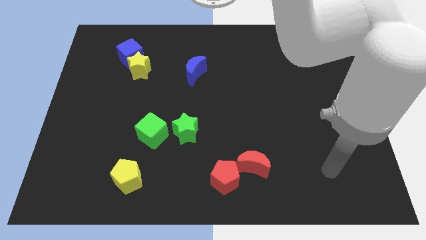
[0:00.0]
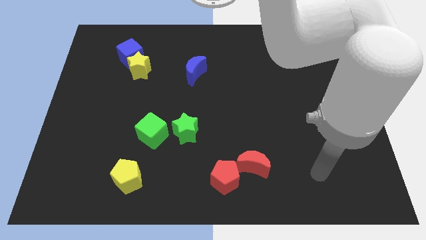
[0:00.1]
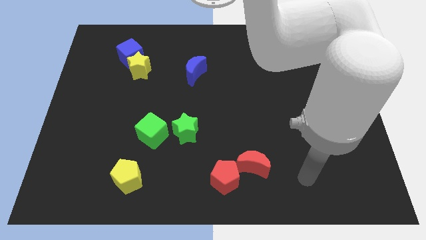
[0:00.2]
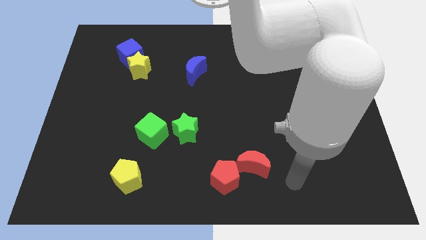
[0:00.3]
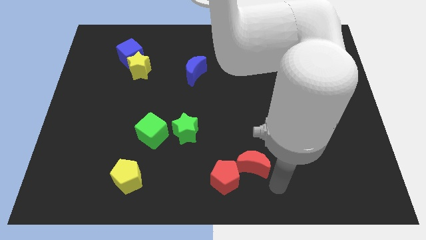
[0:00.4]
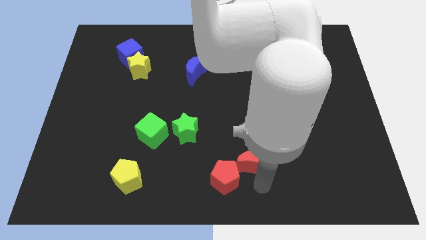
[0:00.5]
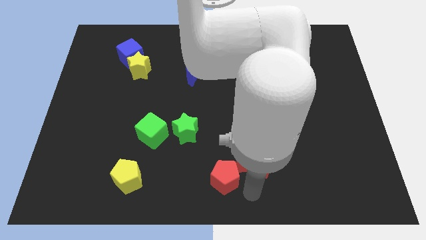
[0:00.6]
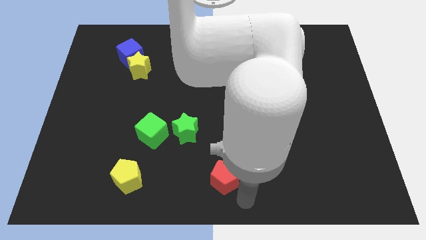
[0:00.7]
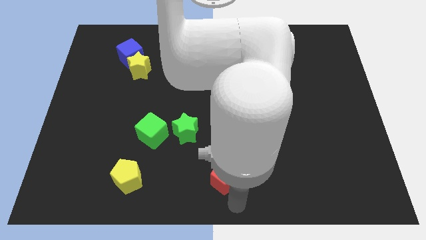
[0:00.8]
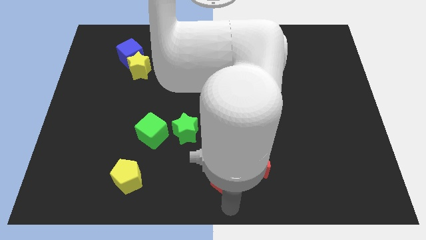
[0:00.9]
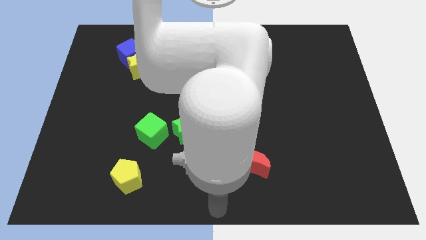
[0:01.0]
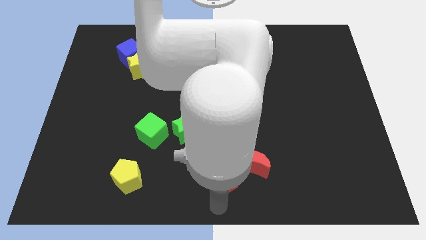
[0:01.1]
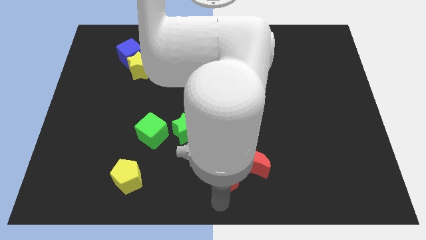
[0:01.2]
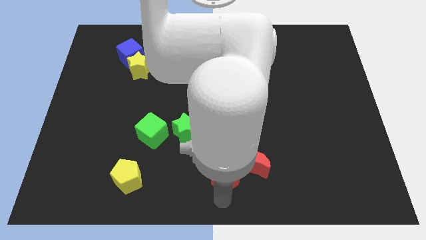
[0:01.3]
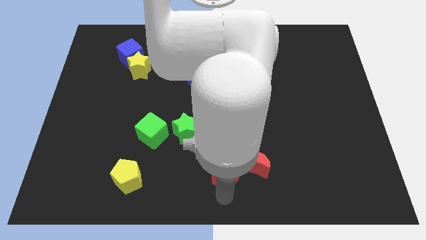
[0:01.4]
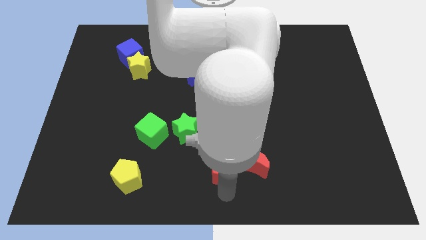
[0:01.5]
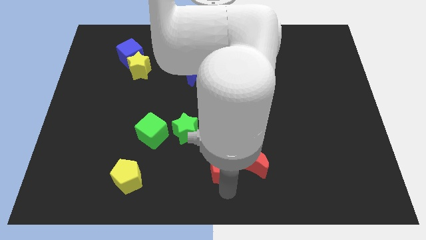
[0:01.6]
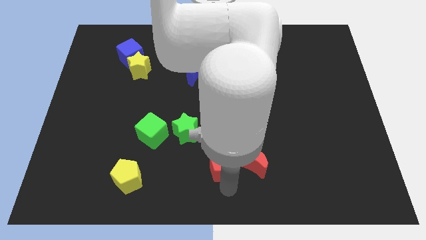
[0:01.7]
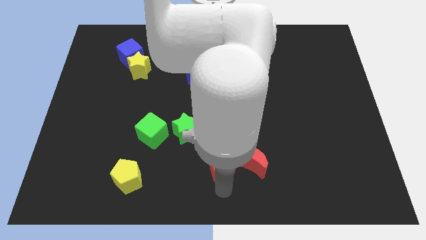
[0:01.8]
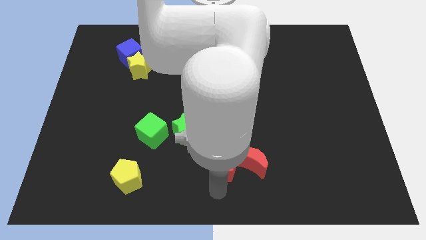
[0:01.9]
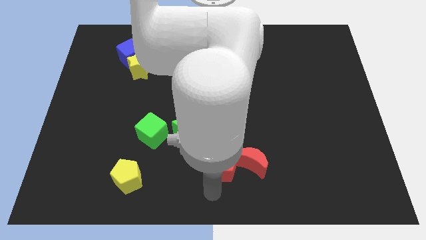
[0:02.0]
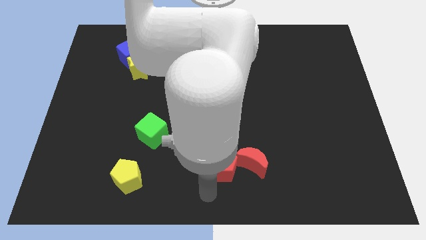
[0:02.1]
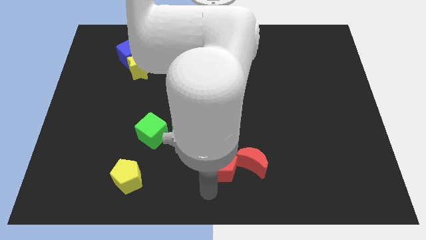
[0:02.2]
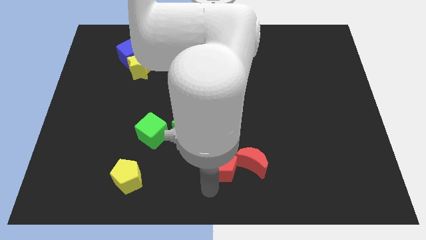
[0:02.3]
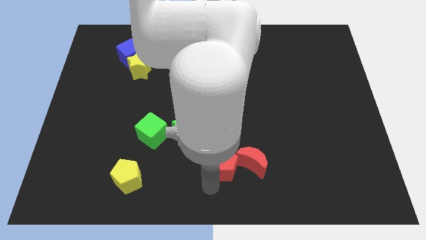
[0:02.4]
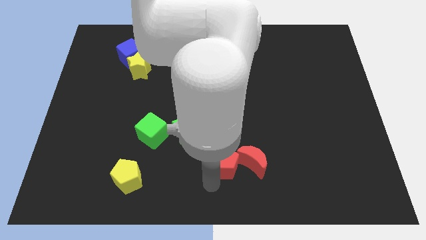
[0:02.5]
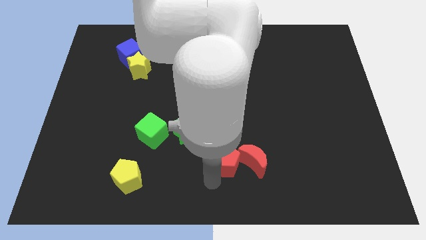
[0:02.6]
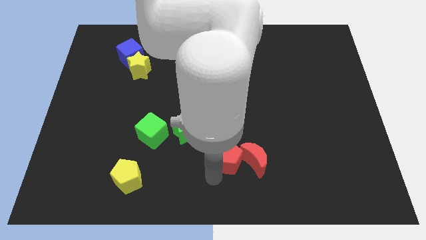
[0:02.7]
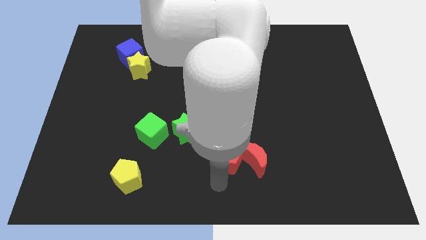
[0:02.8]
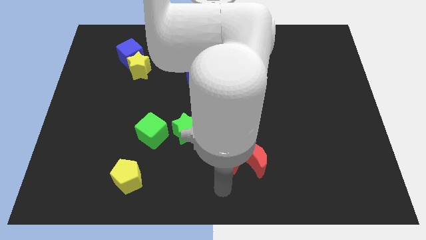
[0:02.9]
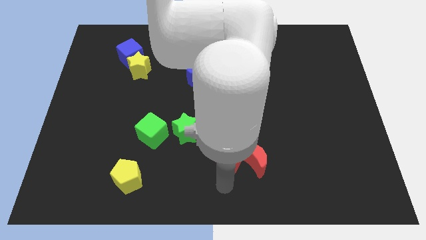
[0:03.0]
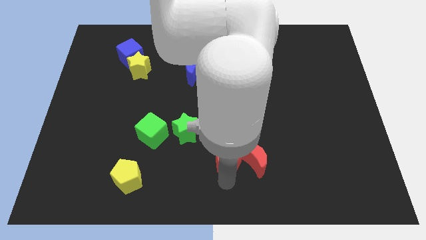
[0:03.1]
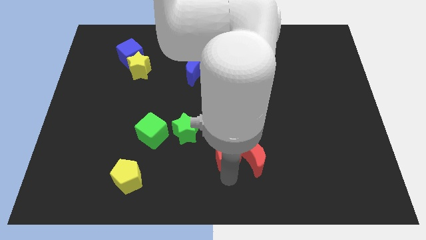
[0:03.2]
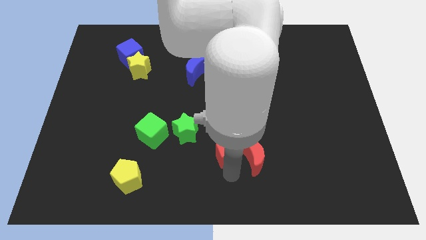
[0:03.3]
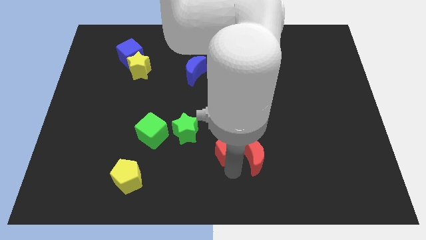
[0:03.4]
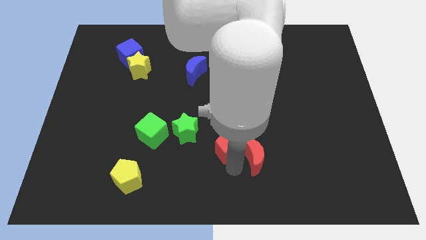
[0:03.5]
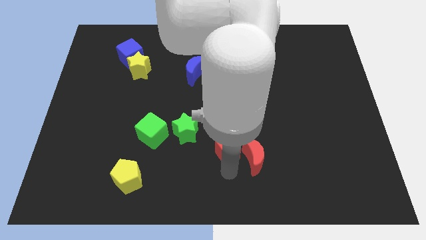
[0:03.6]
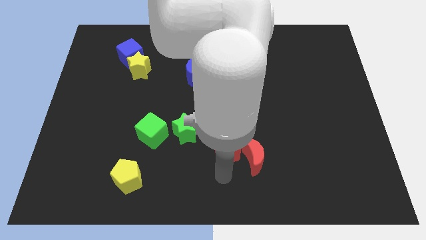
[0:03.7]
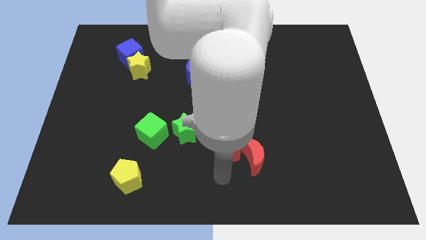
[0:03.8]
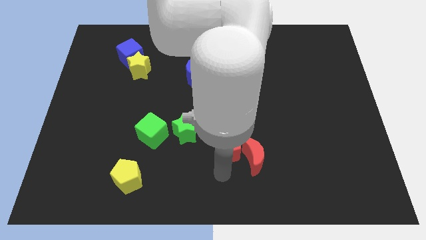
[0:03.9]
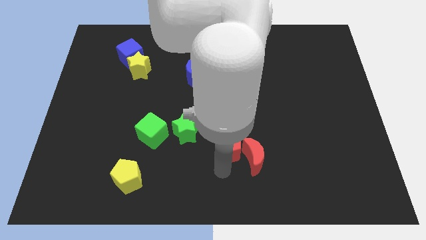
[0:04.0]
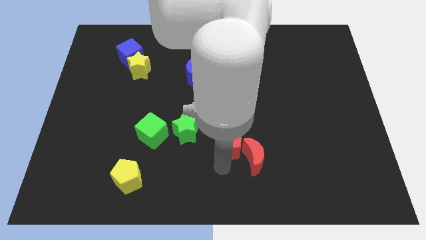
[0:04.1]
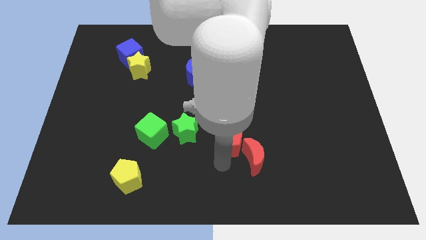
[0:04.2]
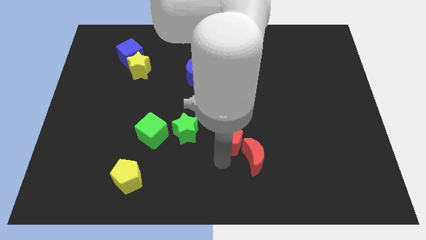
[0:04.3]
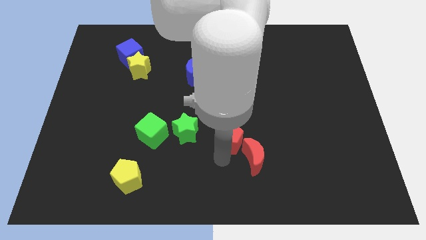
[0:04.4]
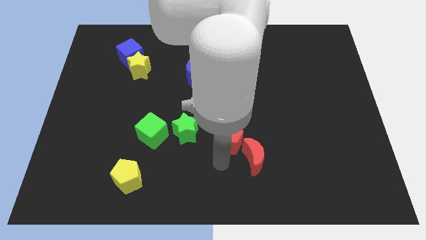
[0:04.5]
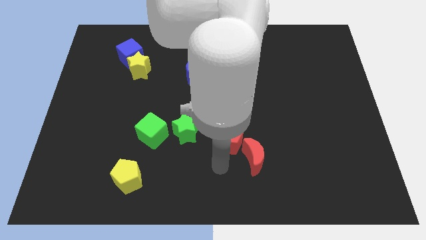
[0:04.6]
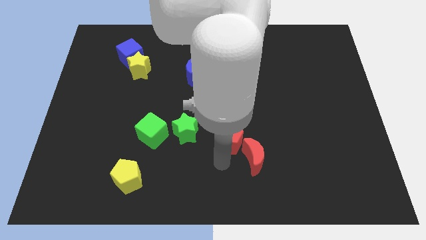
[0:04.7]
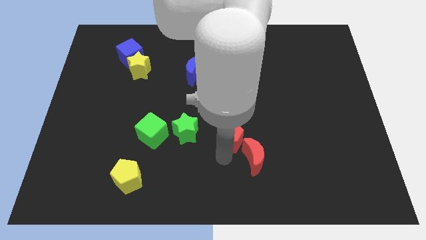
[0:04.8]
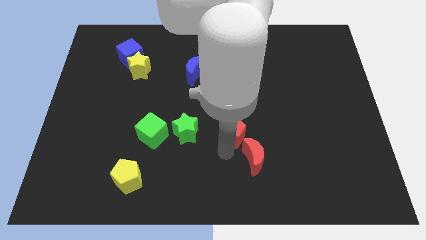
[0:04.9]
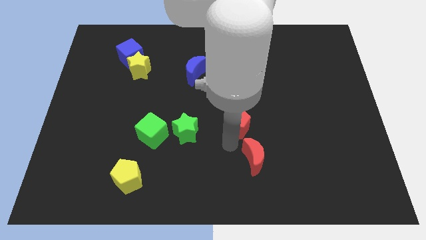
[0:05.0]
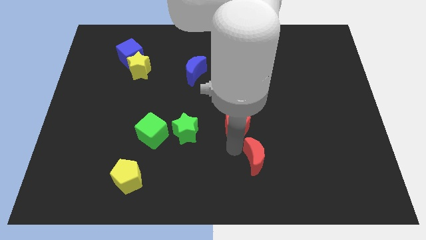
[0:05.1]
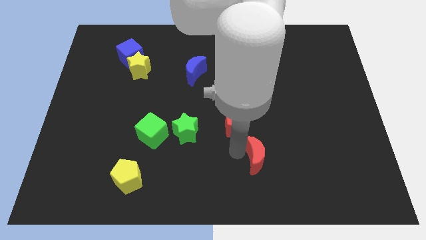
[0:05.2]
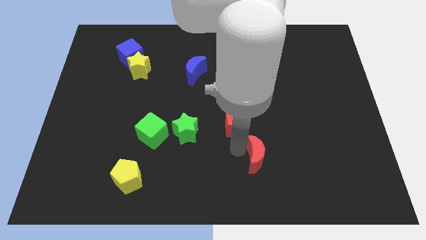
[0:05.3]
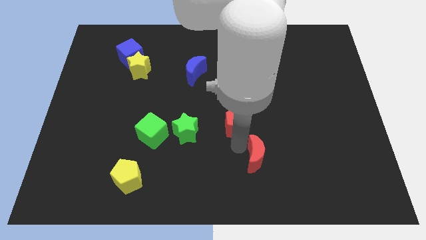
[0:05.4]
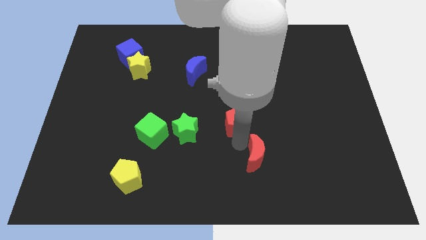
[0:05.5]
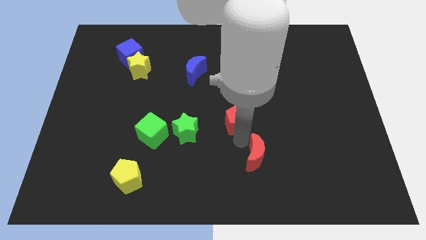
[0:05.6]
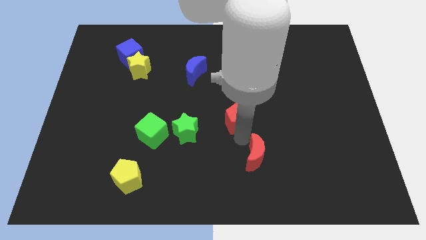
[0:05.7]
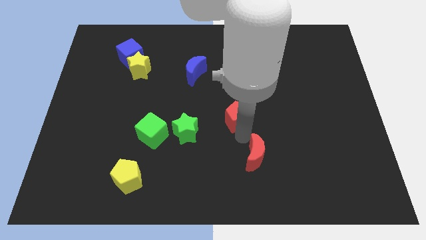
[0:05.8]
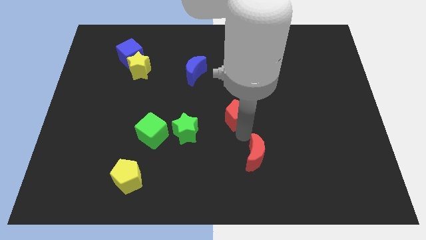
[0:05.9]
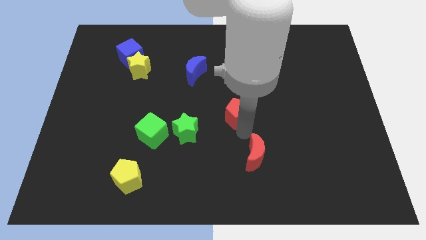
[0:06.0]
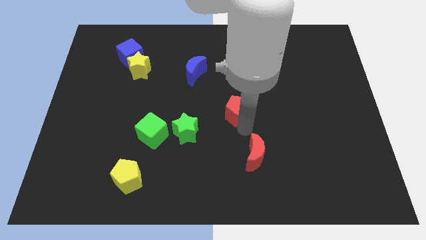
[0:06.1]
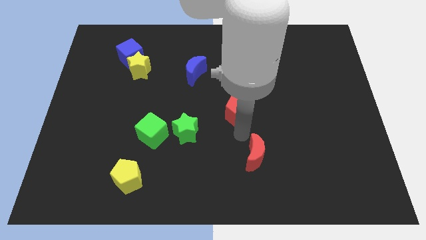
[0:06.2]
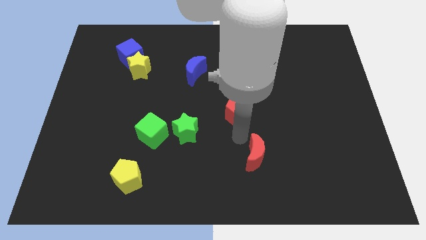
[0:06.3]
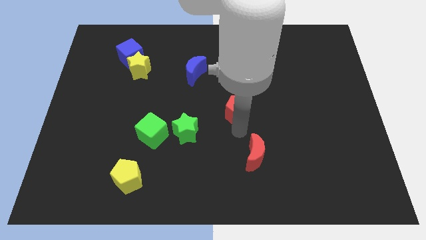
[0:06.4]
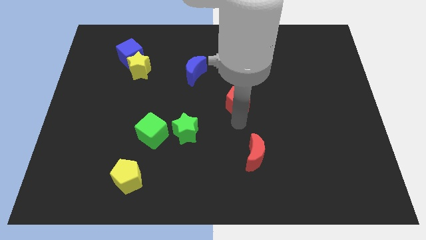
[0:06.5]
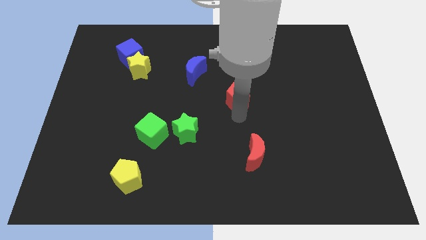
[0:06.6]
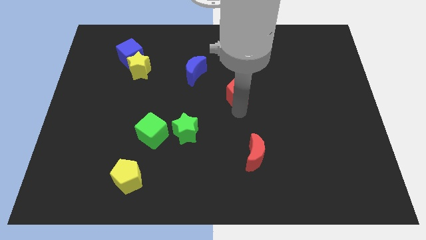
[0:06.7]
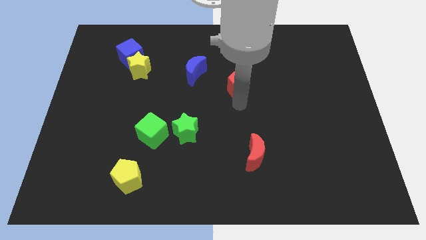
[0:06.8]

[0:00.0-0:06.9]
slide the red pentagon just right of the blue moon
